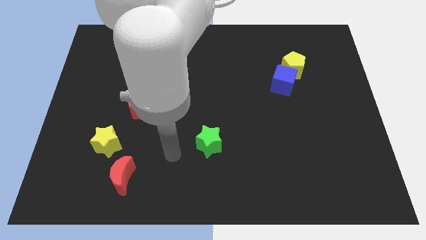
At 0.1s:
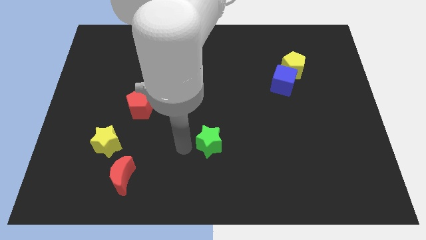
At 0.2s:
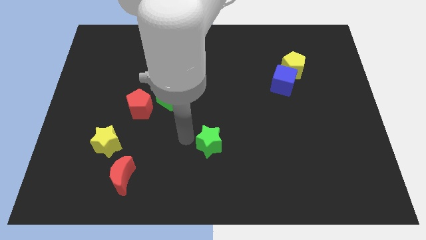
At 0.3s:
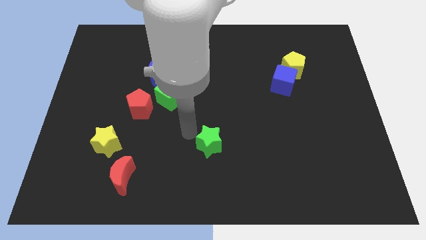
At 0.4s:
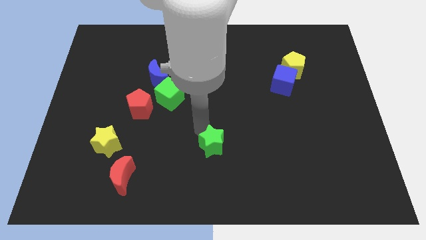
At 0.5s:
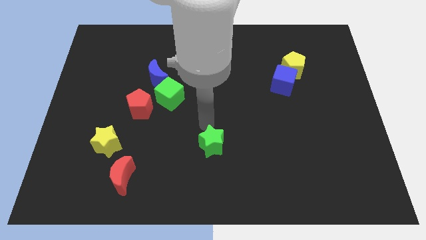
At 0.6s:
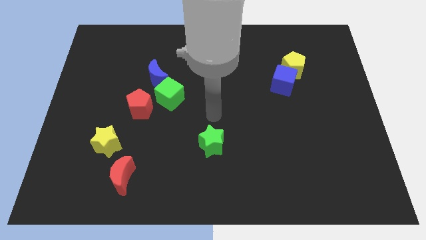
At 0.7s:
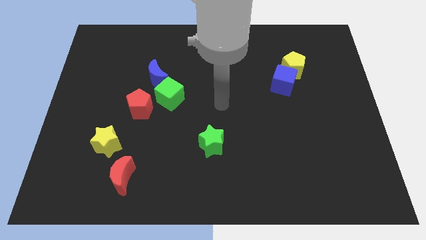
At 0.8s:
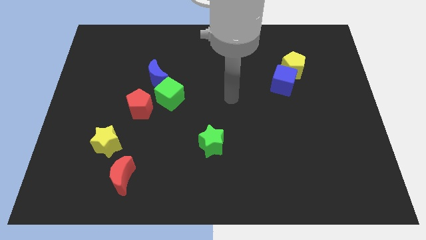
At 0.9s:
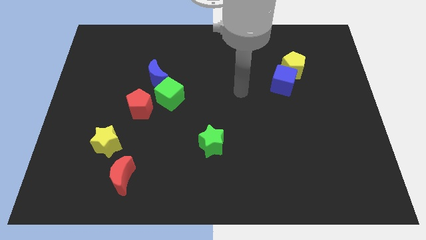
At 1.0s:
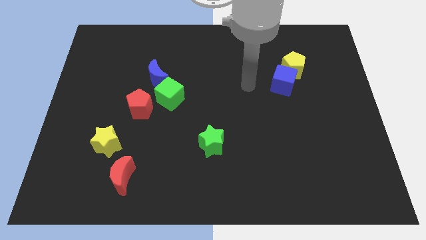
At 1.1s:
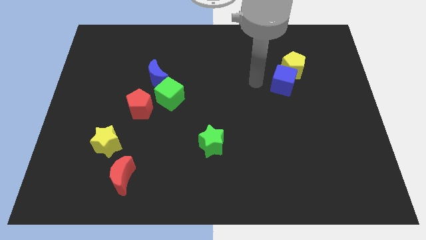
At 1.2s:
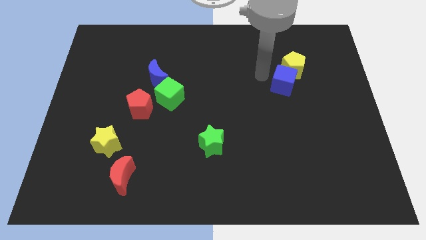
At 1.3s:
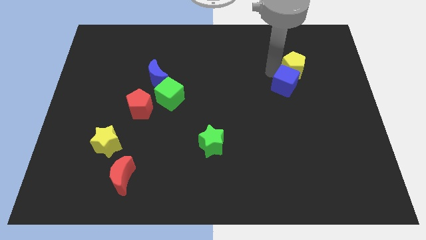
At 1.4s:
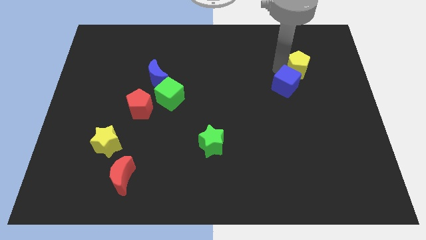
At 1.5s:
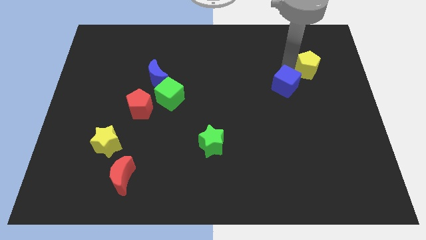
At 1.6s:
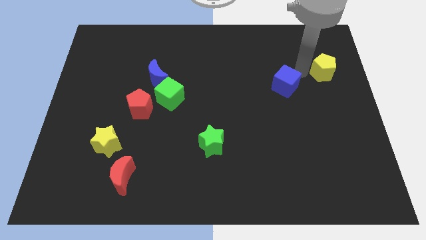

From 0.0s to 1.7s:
move the blue cube away from the yellow pentagon

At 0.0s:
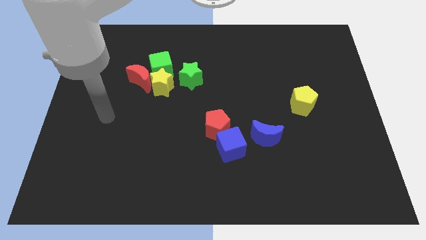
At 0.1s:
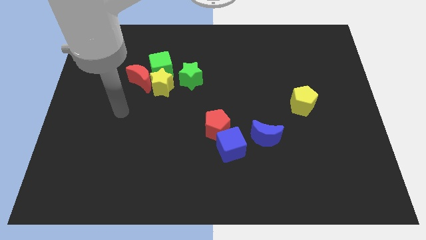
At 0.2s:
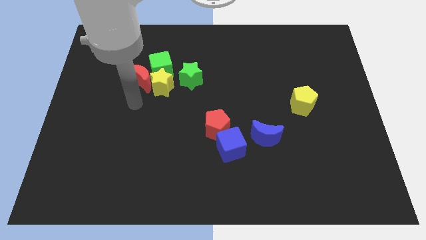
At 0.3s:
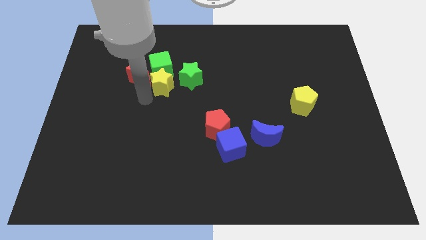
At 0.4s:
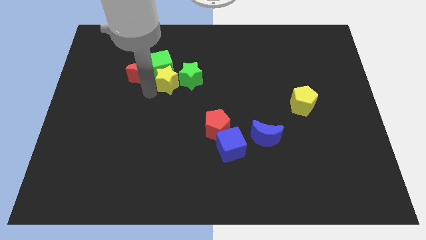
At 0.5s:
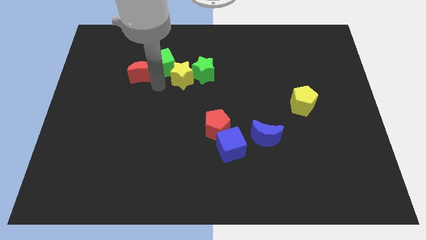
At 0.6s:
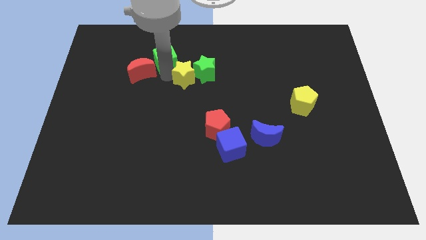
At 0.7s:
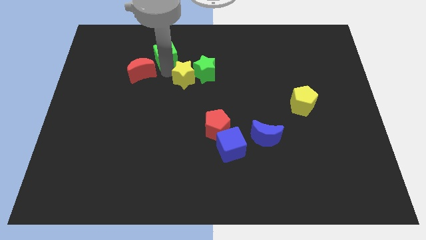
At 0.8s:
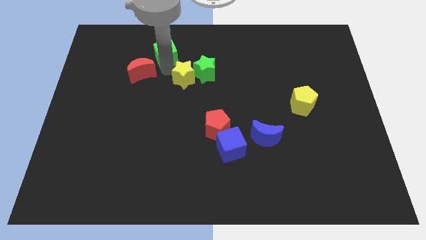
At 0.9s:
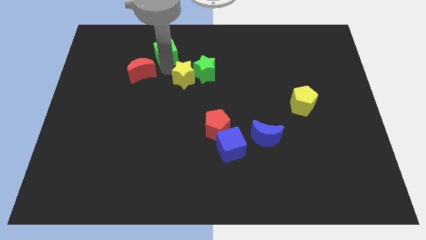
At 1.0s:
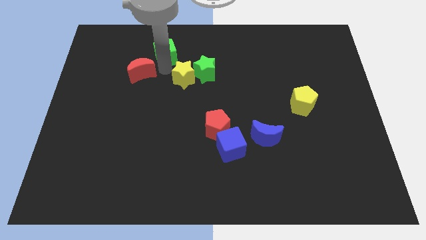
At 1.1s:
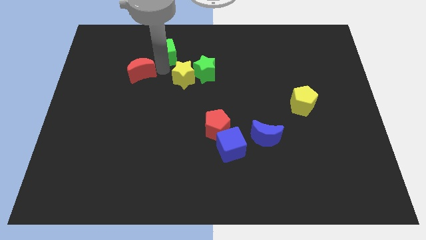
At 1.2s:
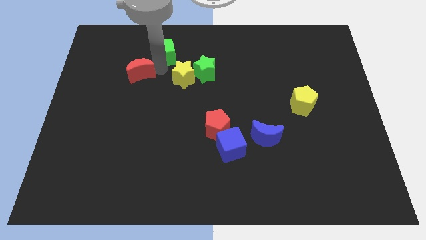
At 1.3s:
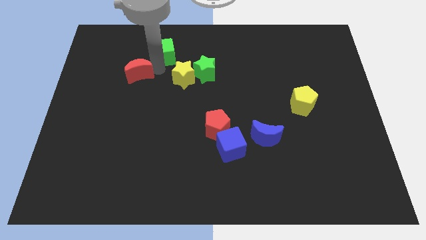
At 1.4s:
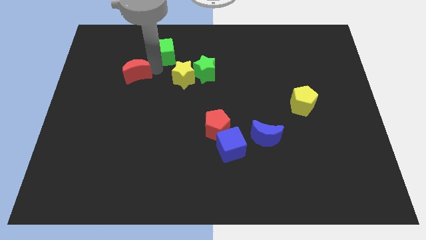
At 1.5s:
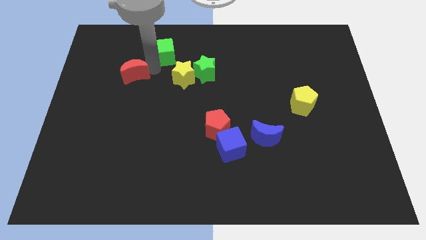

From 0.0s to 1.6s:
pull the red moon apart from the yellow star and green cube

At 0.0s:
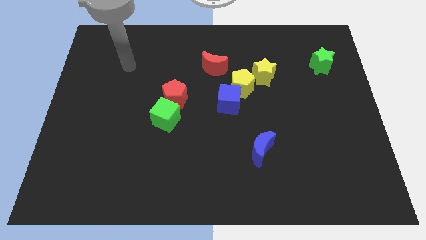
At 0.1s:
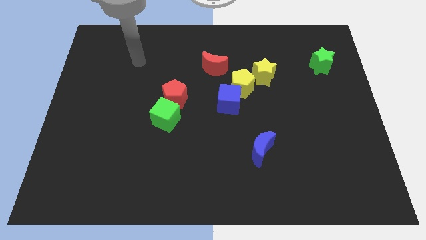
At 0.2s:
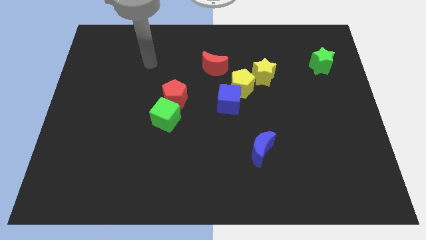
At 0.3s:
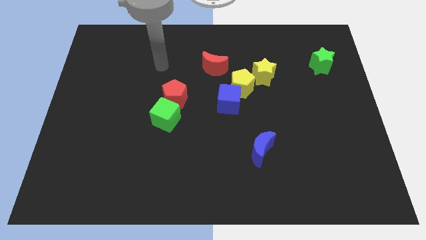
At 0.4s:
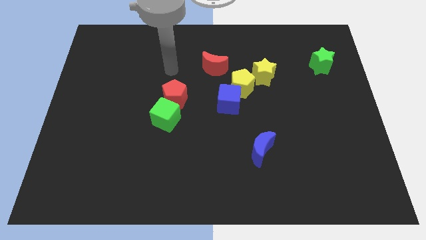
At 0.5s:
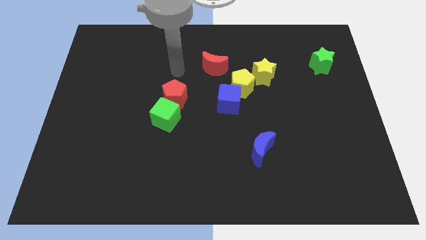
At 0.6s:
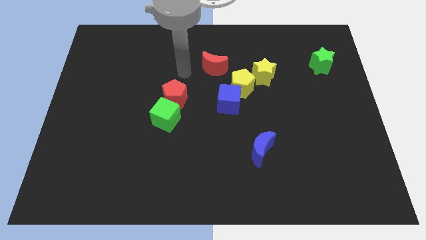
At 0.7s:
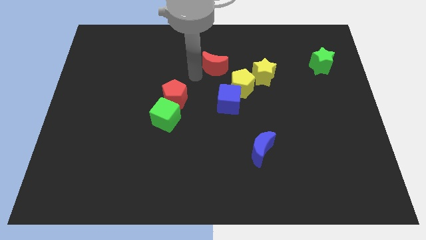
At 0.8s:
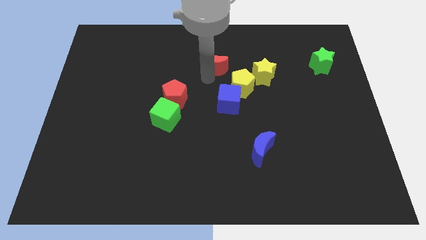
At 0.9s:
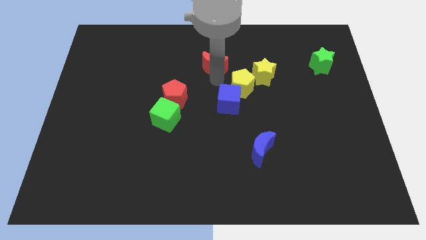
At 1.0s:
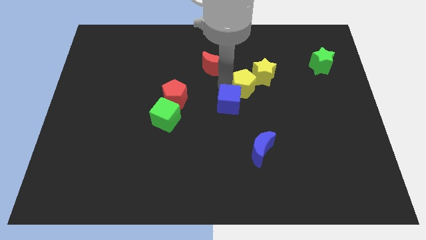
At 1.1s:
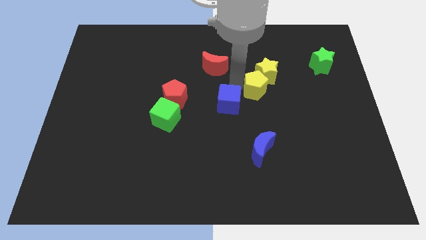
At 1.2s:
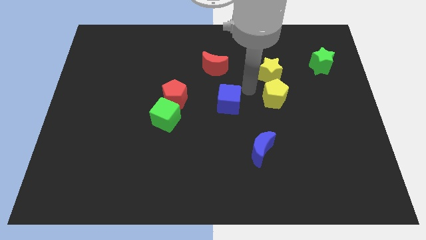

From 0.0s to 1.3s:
separate the blue cube from the yellow pentagon

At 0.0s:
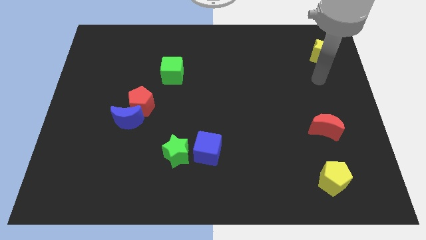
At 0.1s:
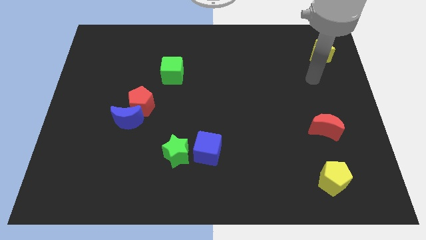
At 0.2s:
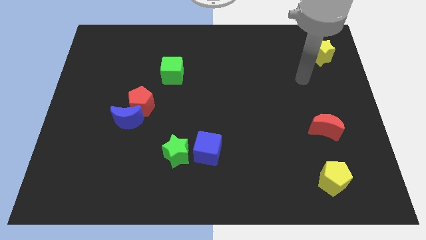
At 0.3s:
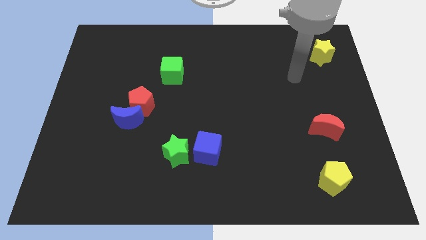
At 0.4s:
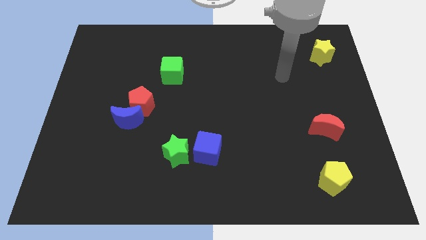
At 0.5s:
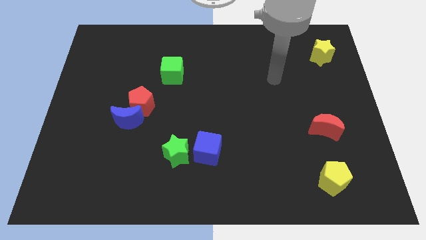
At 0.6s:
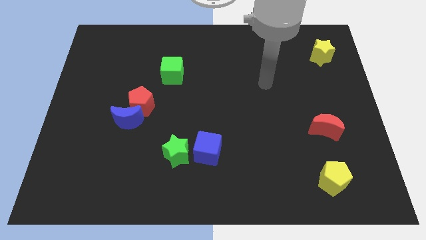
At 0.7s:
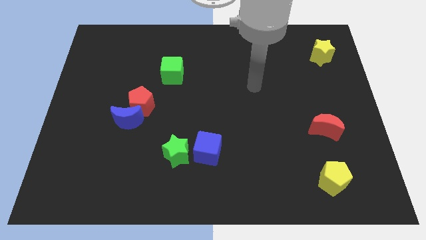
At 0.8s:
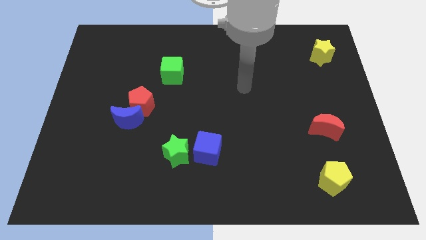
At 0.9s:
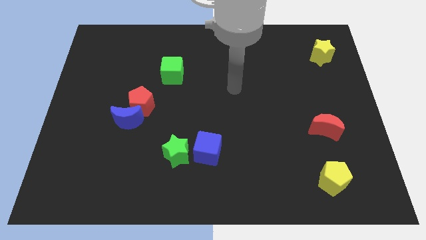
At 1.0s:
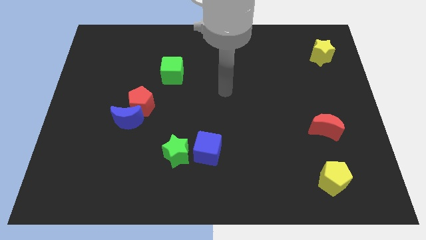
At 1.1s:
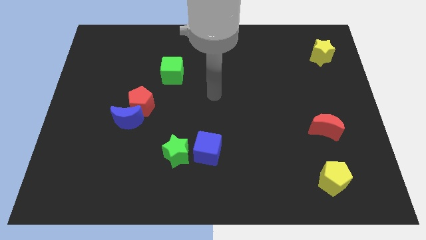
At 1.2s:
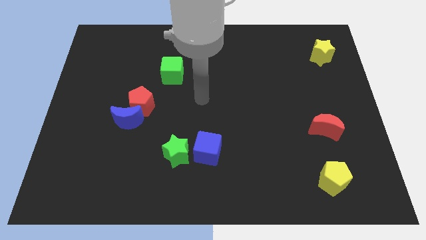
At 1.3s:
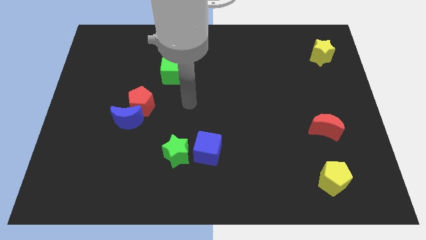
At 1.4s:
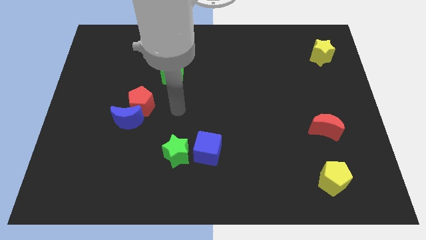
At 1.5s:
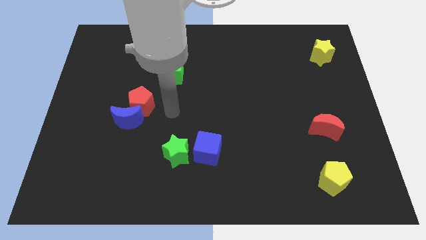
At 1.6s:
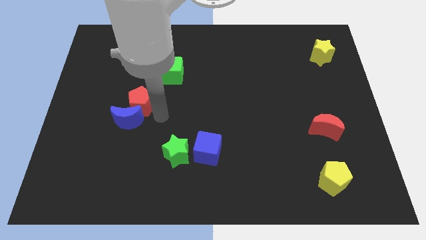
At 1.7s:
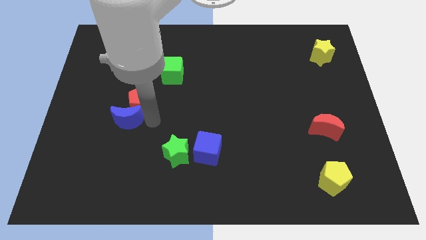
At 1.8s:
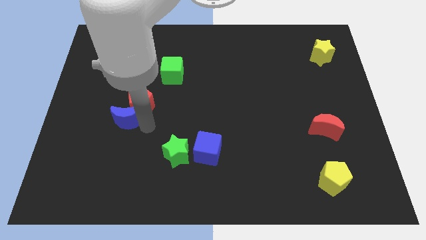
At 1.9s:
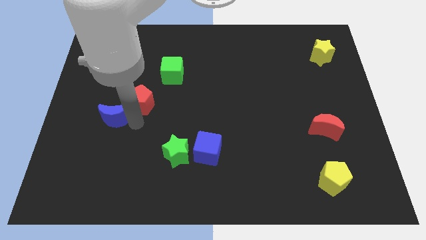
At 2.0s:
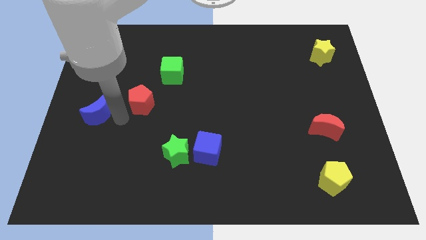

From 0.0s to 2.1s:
pull the red pentagon apart from the blue moon

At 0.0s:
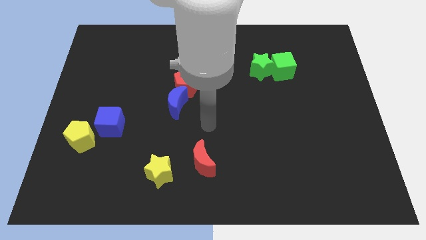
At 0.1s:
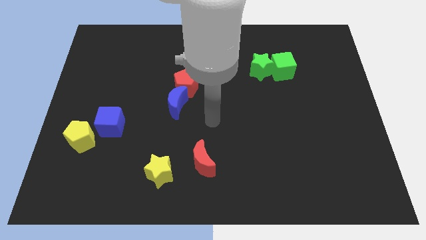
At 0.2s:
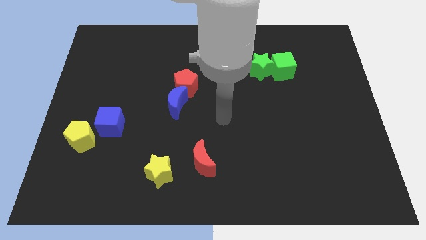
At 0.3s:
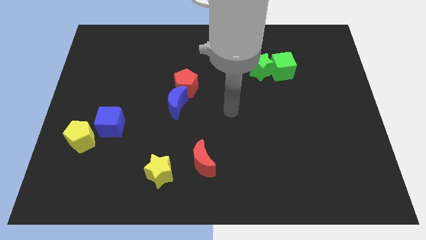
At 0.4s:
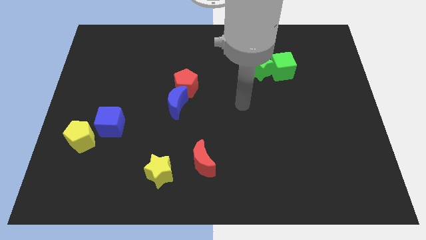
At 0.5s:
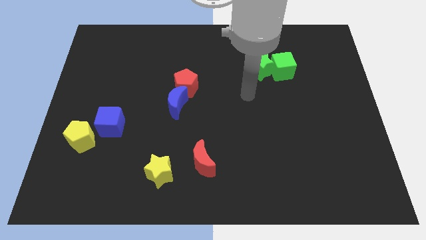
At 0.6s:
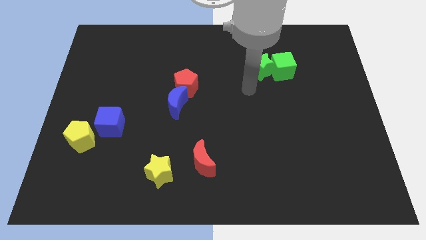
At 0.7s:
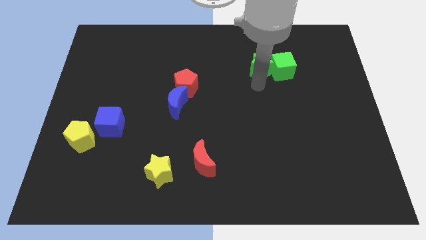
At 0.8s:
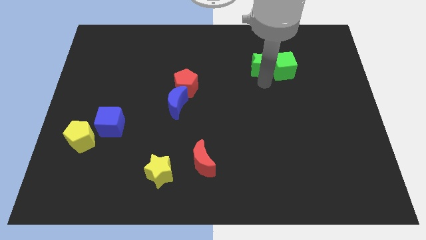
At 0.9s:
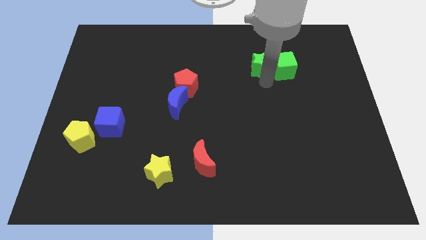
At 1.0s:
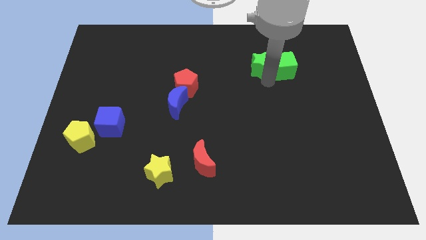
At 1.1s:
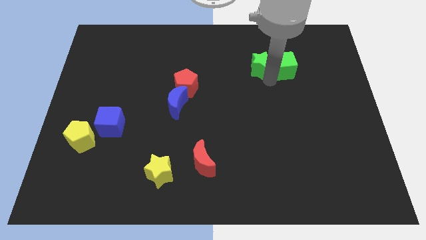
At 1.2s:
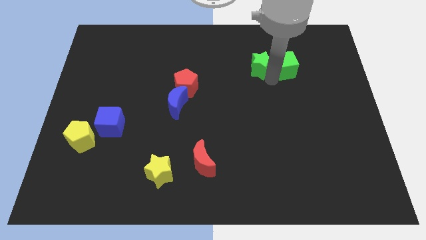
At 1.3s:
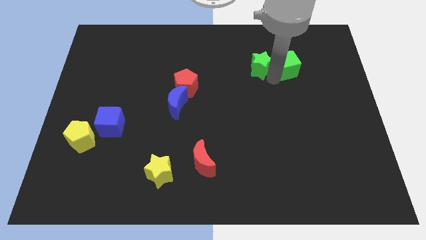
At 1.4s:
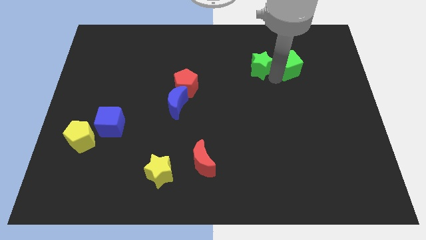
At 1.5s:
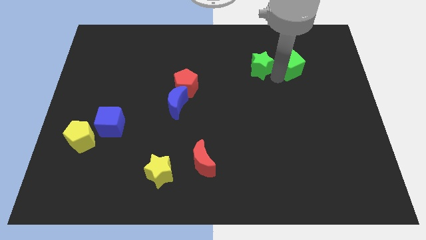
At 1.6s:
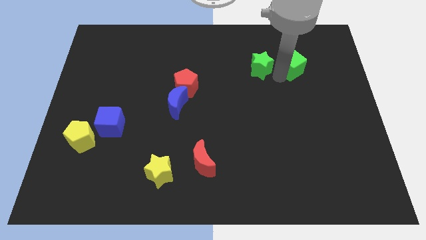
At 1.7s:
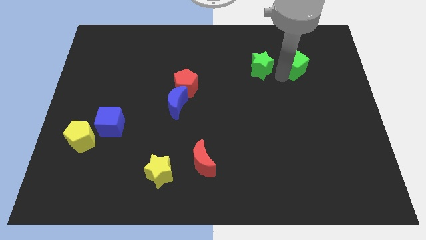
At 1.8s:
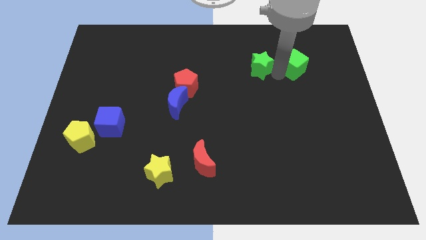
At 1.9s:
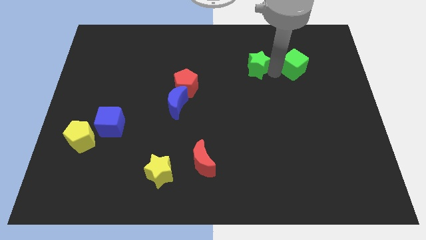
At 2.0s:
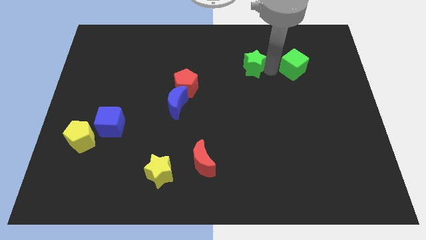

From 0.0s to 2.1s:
move the green cube away from the green star

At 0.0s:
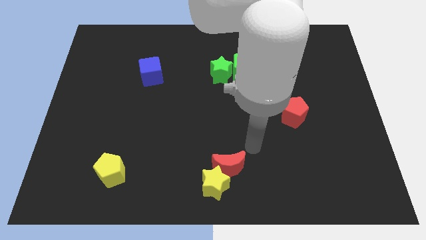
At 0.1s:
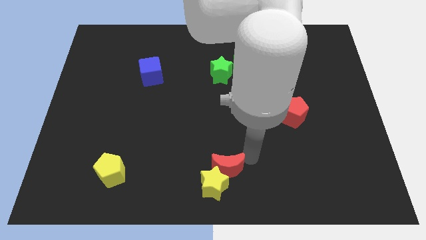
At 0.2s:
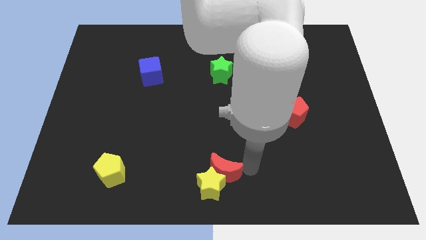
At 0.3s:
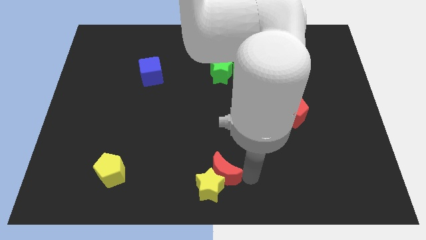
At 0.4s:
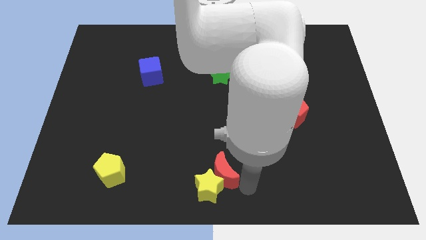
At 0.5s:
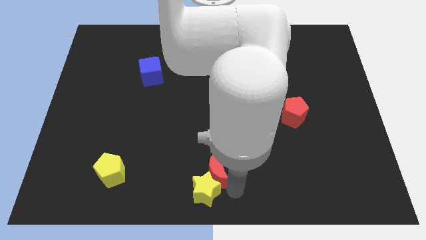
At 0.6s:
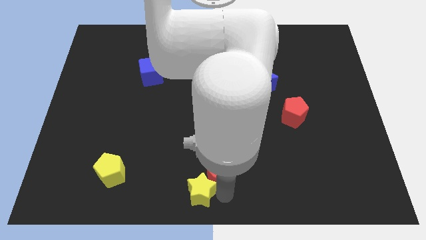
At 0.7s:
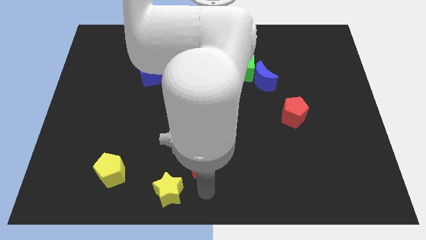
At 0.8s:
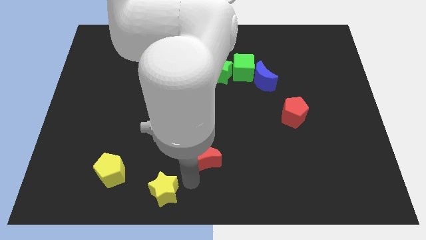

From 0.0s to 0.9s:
pull the red moon apart from the yellow star
